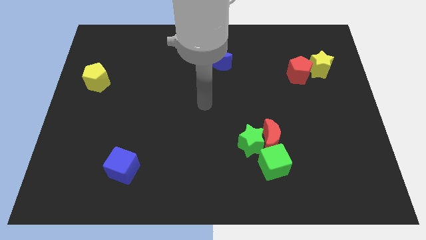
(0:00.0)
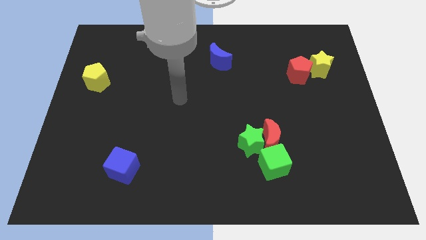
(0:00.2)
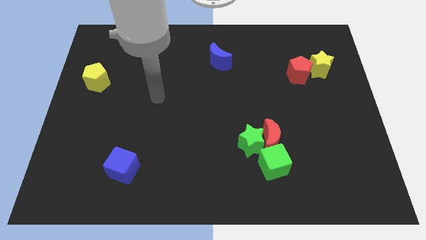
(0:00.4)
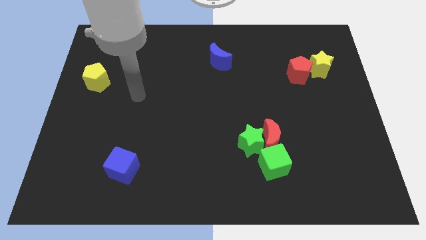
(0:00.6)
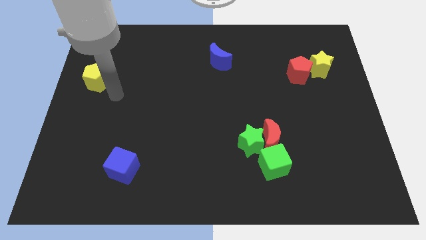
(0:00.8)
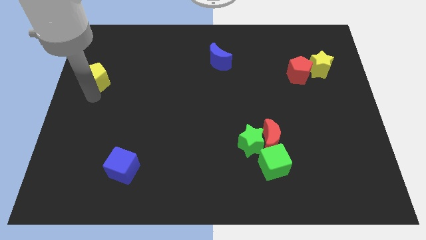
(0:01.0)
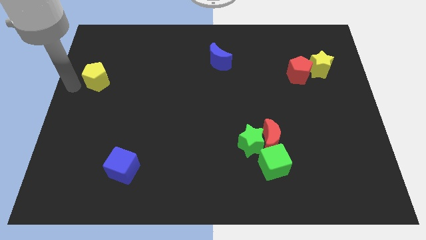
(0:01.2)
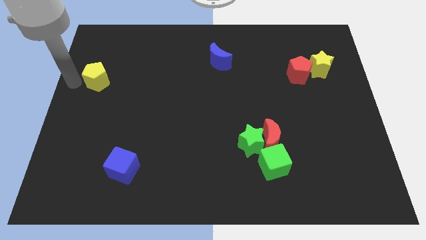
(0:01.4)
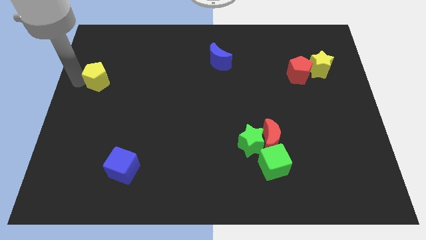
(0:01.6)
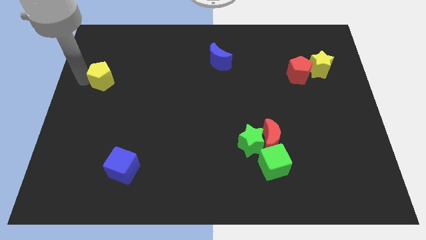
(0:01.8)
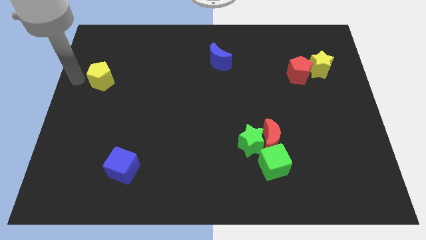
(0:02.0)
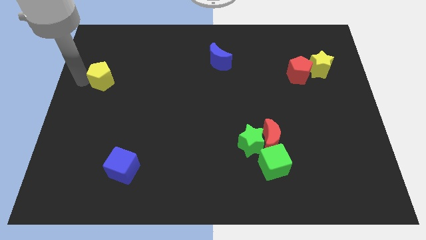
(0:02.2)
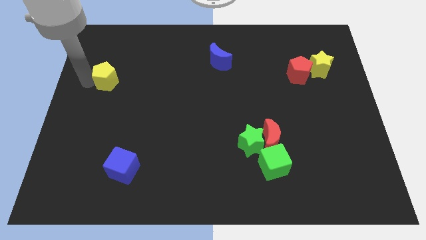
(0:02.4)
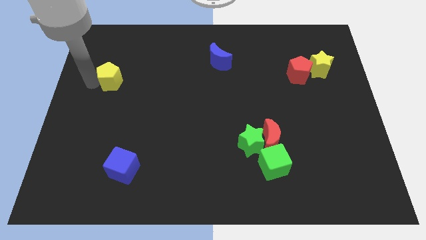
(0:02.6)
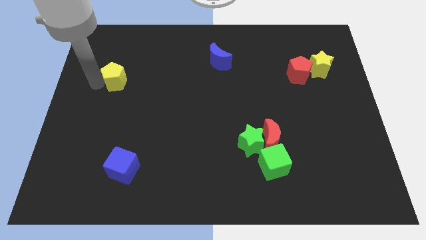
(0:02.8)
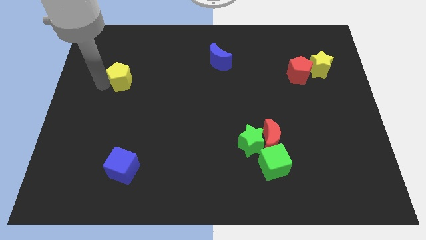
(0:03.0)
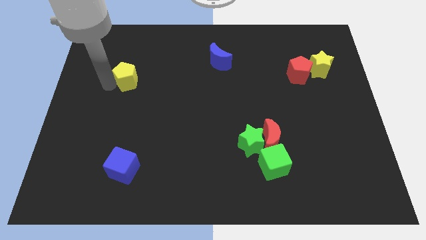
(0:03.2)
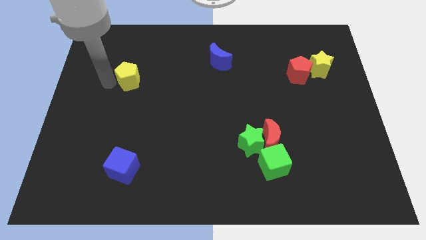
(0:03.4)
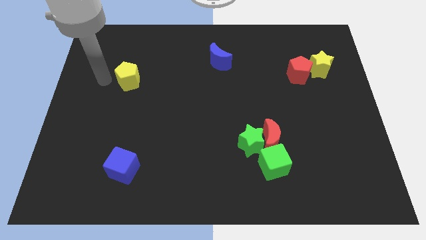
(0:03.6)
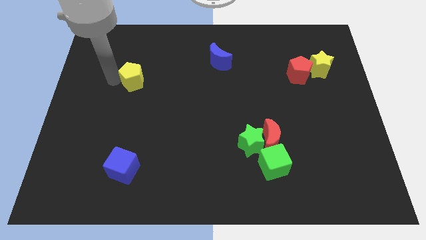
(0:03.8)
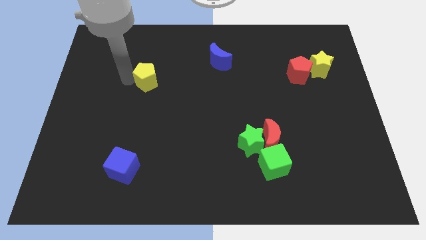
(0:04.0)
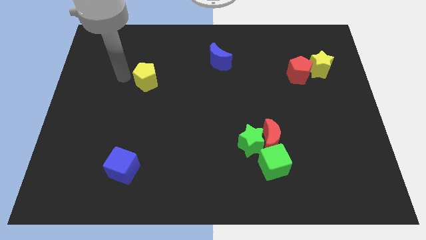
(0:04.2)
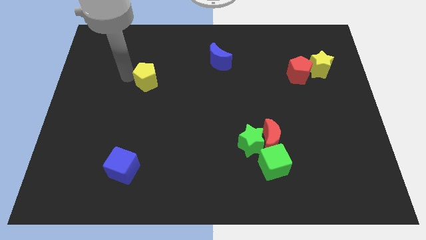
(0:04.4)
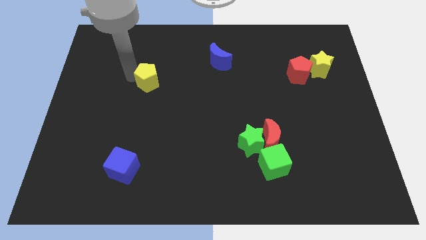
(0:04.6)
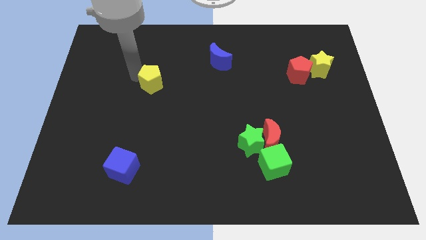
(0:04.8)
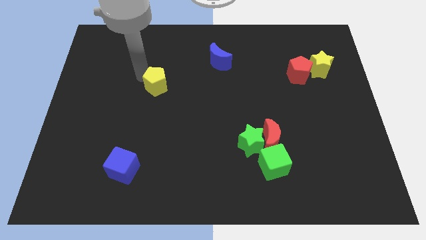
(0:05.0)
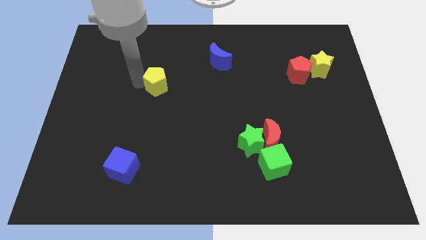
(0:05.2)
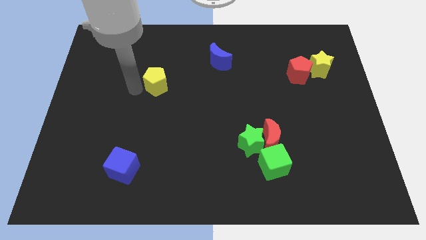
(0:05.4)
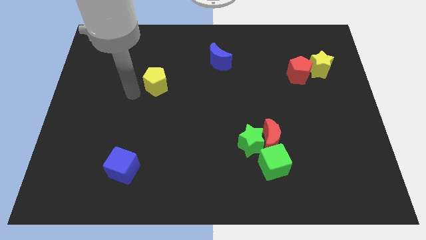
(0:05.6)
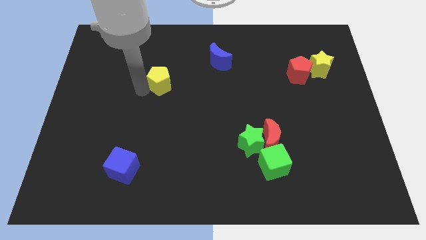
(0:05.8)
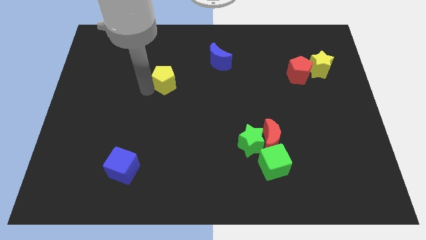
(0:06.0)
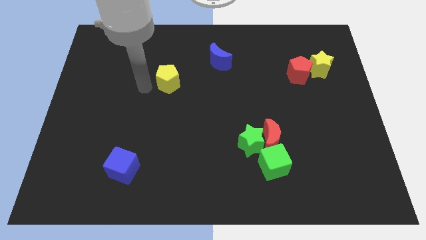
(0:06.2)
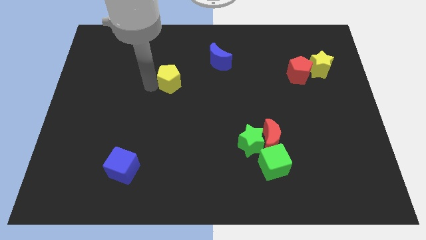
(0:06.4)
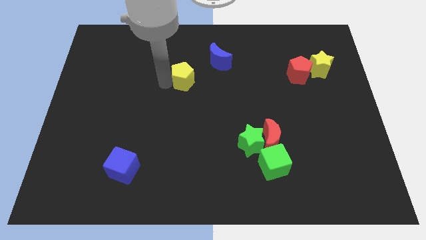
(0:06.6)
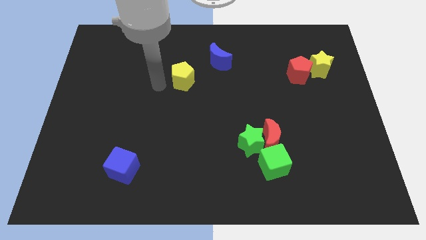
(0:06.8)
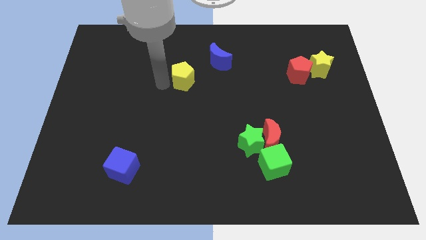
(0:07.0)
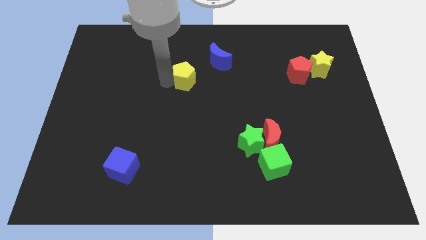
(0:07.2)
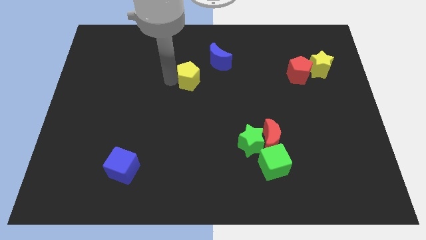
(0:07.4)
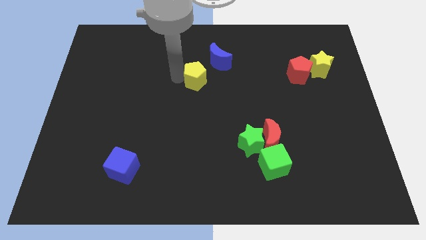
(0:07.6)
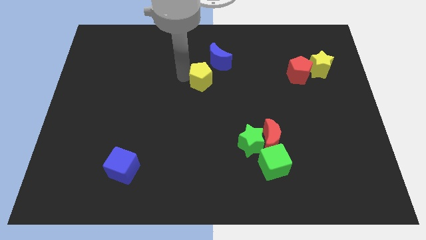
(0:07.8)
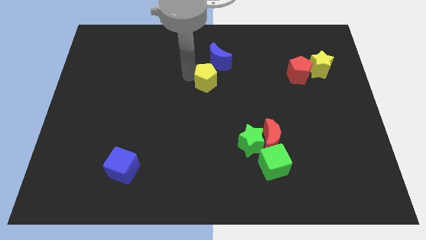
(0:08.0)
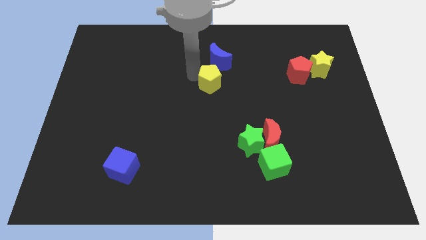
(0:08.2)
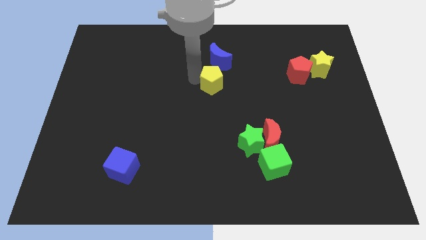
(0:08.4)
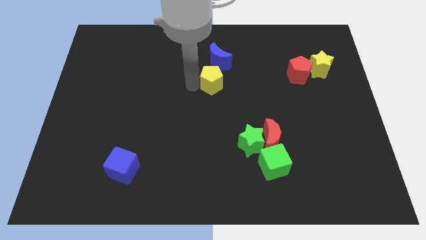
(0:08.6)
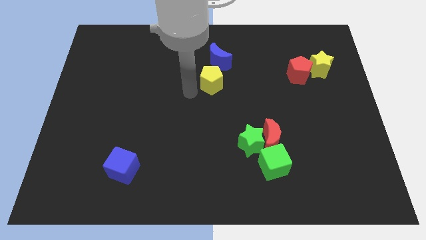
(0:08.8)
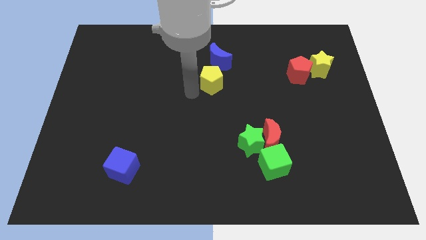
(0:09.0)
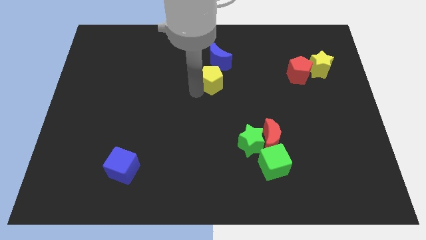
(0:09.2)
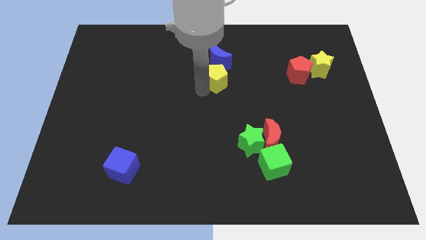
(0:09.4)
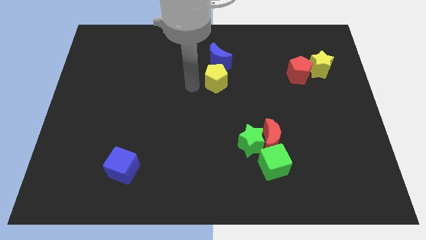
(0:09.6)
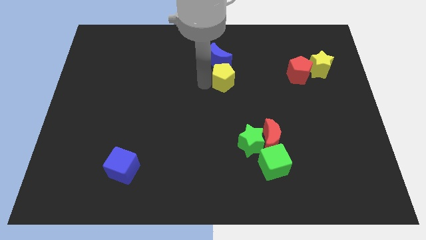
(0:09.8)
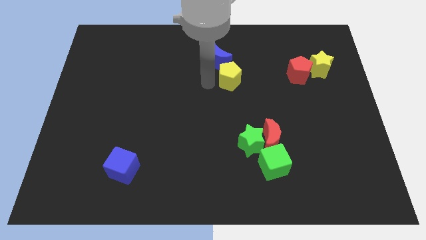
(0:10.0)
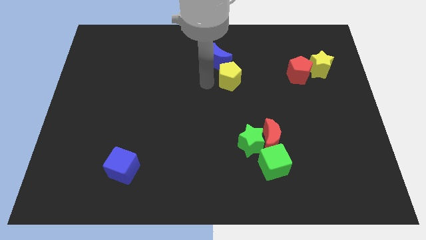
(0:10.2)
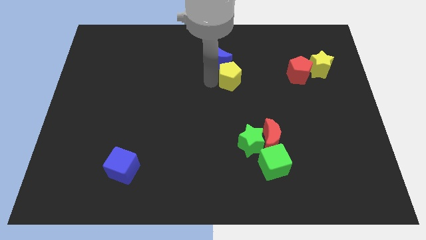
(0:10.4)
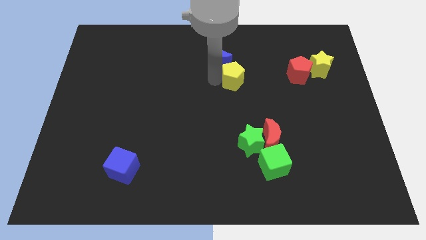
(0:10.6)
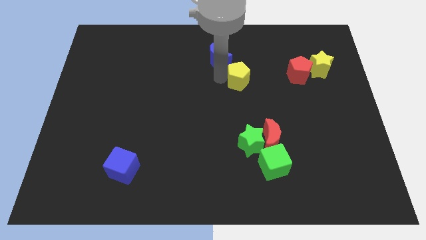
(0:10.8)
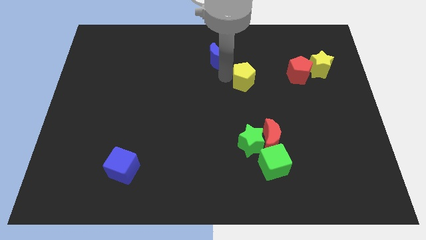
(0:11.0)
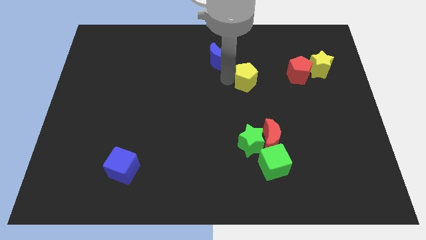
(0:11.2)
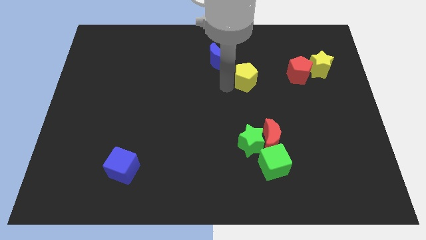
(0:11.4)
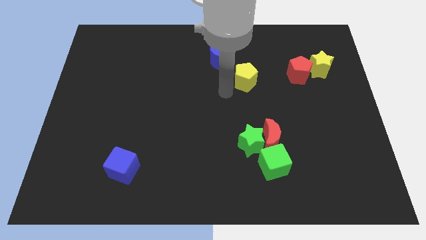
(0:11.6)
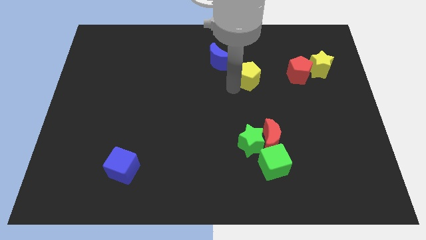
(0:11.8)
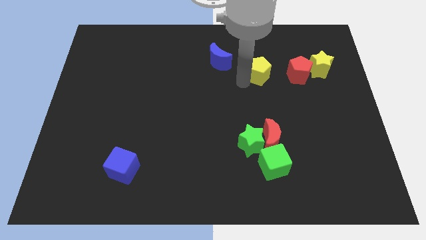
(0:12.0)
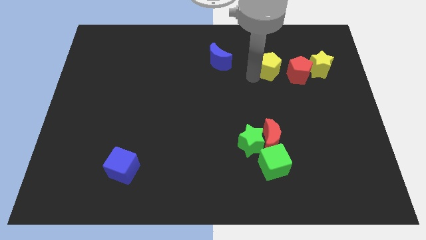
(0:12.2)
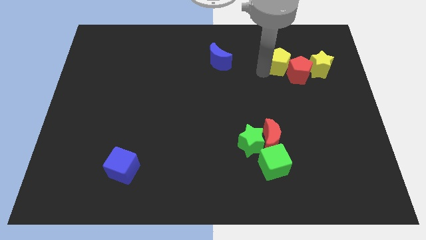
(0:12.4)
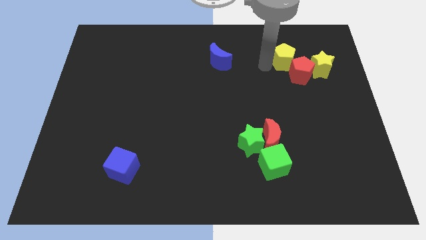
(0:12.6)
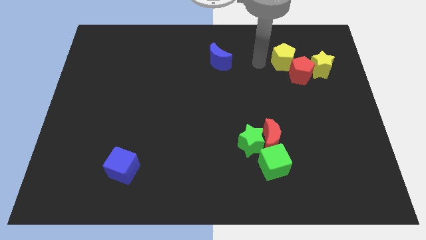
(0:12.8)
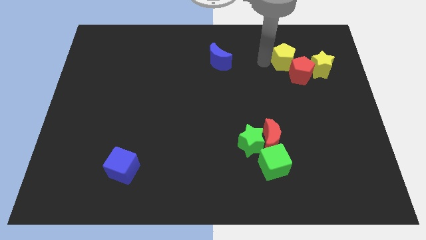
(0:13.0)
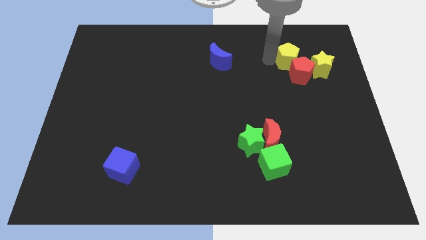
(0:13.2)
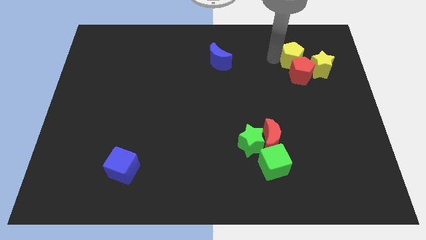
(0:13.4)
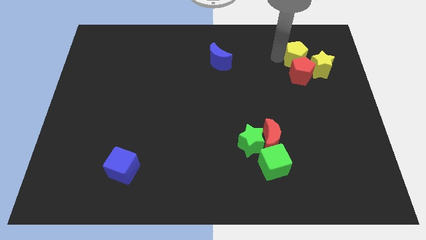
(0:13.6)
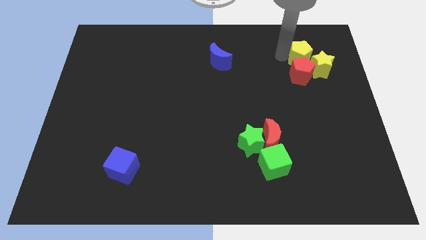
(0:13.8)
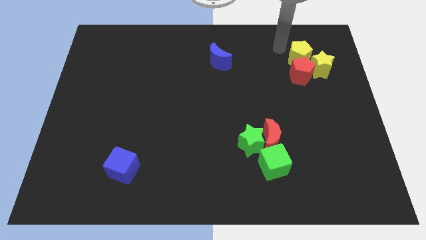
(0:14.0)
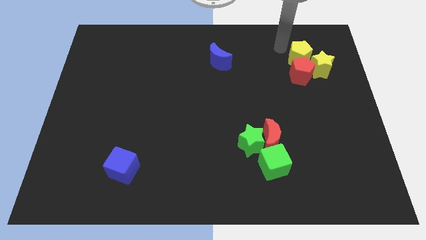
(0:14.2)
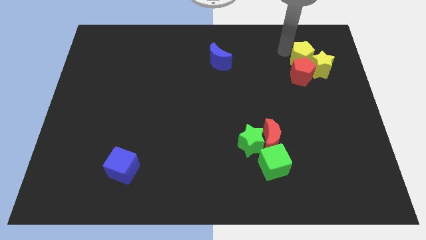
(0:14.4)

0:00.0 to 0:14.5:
put the yellow pentagon towards the yellow star
